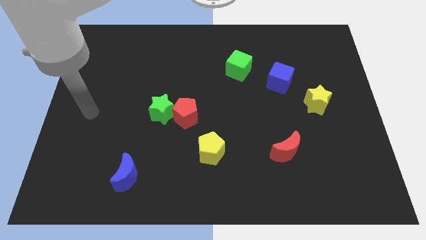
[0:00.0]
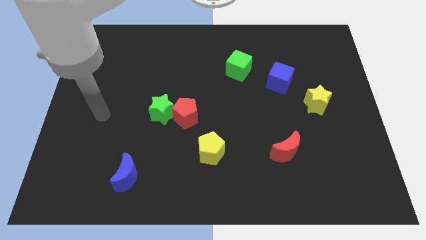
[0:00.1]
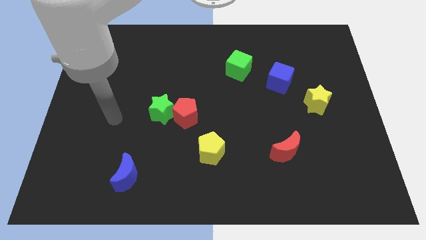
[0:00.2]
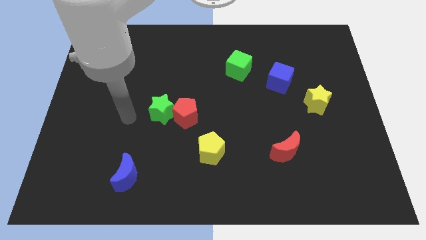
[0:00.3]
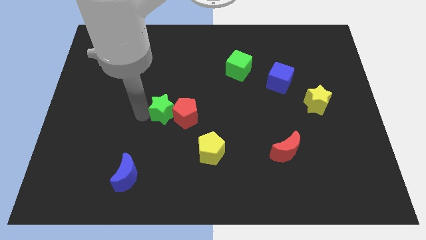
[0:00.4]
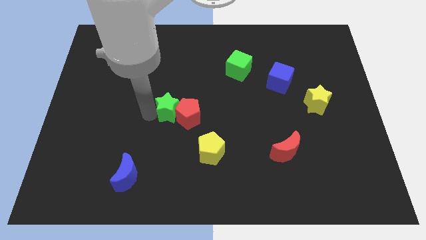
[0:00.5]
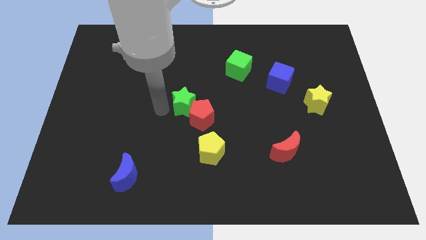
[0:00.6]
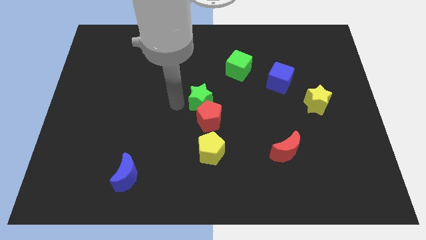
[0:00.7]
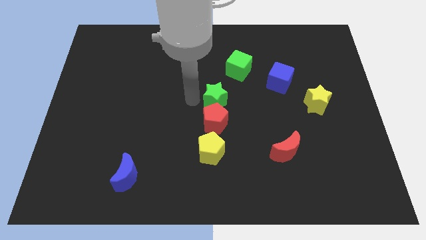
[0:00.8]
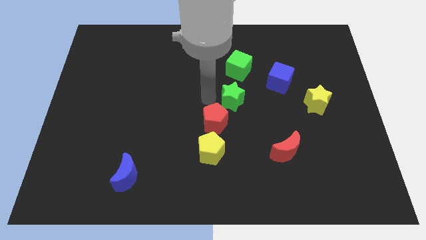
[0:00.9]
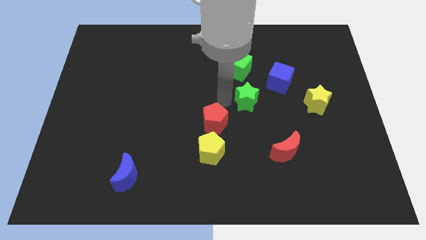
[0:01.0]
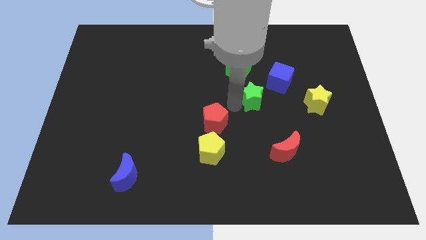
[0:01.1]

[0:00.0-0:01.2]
move the red pentagon away from the green star

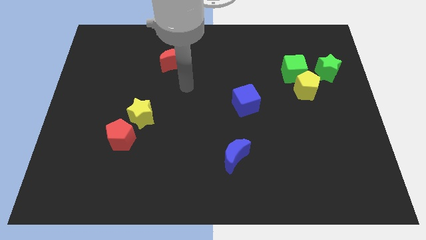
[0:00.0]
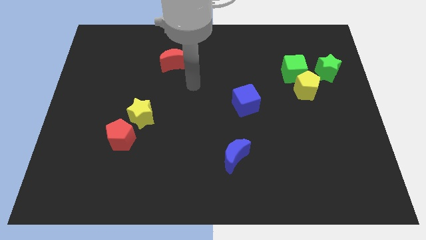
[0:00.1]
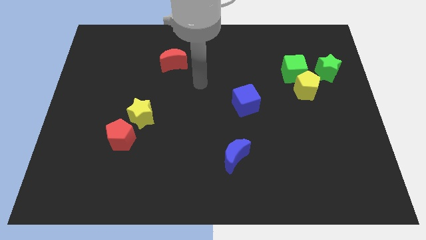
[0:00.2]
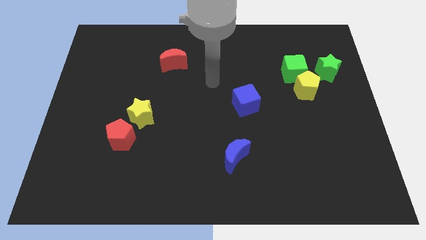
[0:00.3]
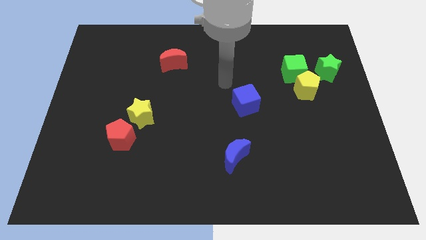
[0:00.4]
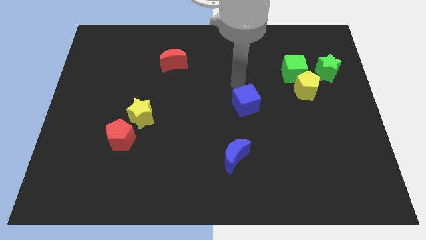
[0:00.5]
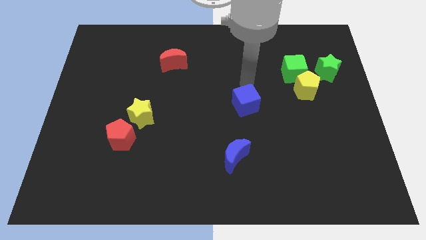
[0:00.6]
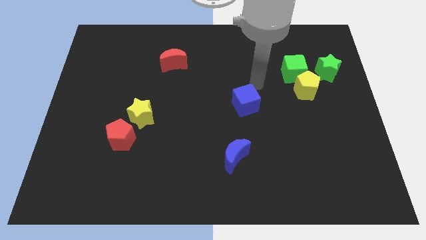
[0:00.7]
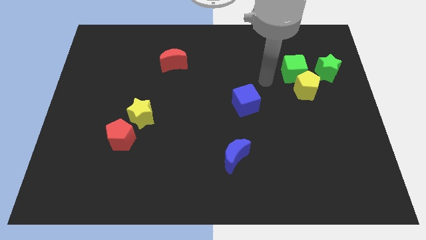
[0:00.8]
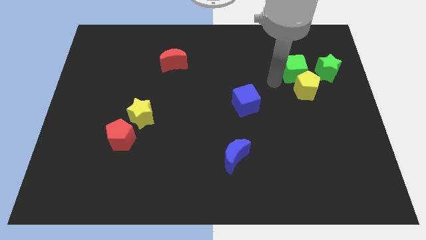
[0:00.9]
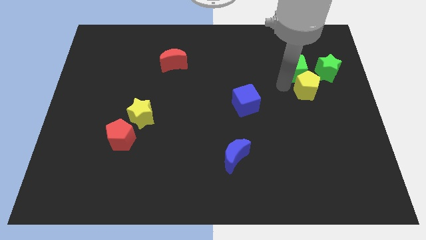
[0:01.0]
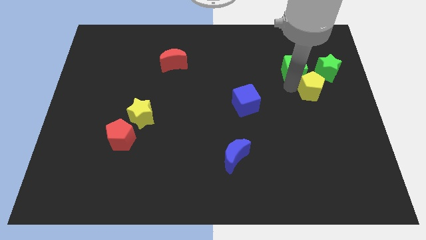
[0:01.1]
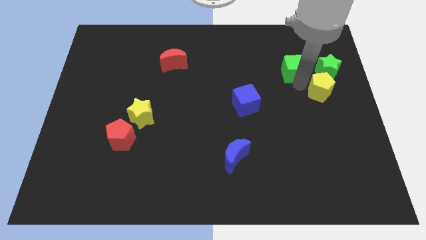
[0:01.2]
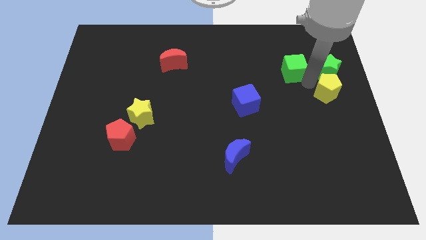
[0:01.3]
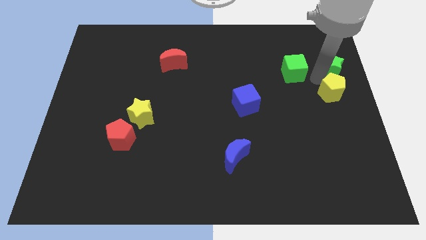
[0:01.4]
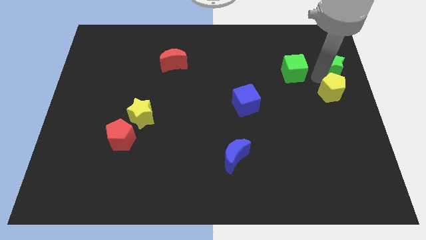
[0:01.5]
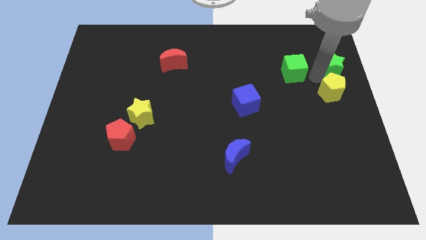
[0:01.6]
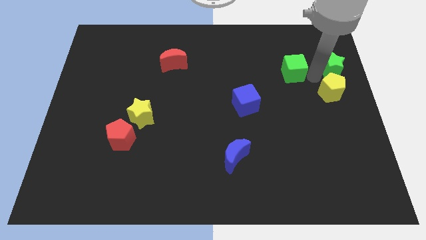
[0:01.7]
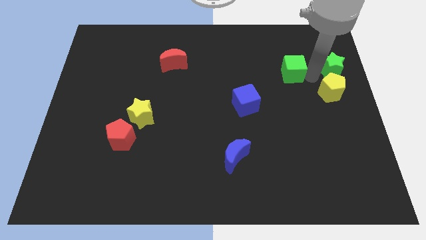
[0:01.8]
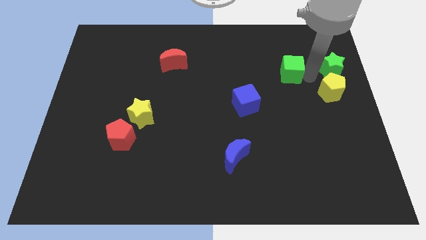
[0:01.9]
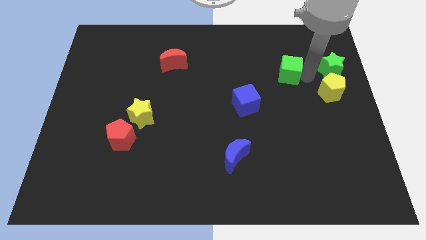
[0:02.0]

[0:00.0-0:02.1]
separate the green cube from the yellow pentagon and green star

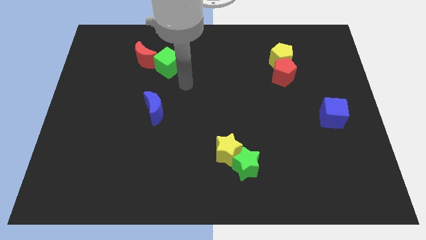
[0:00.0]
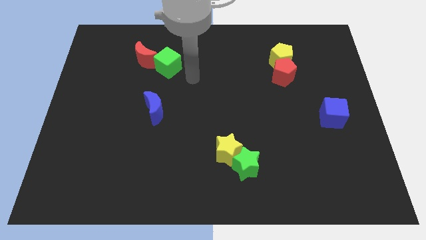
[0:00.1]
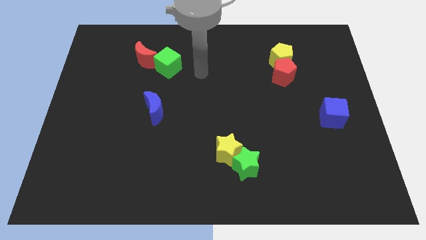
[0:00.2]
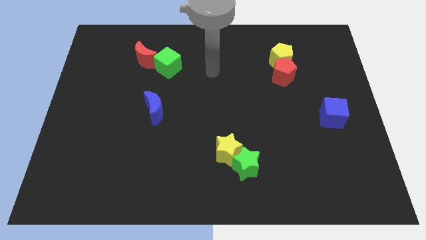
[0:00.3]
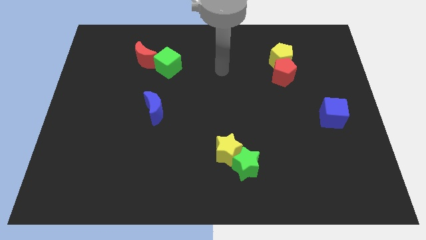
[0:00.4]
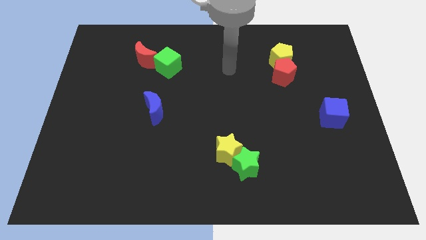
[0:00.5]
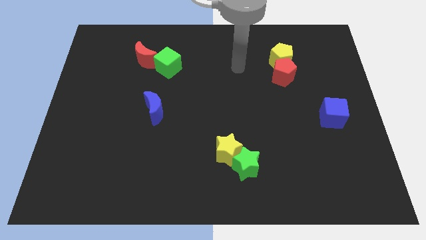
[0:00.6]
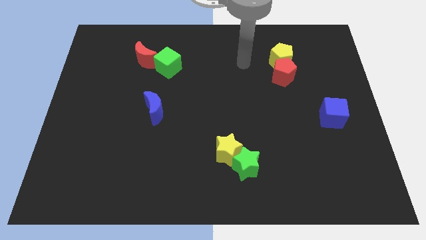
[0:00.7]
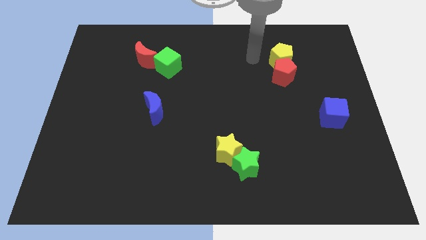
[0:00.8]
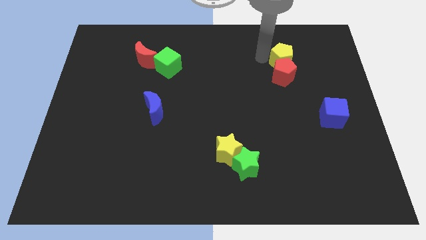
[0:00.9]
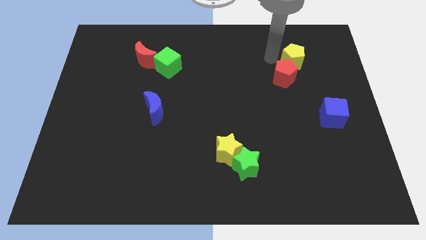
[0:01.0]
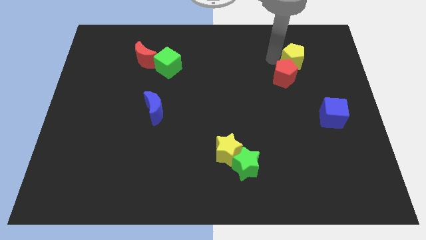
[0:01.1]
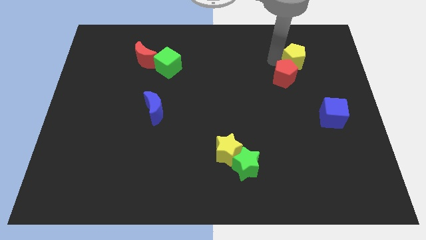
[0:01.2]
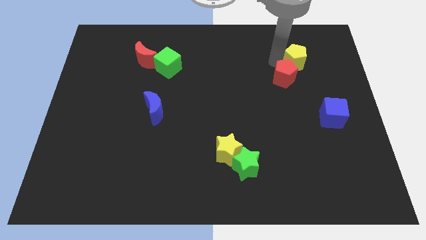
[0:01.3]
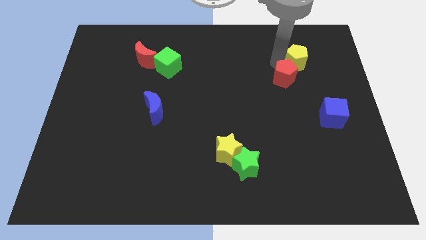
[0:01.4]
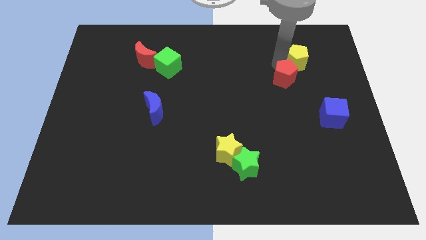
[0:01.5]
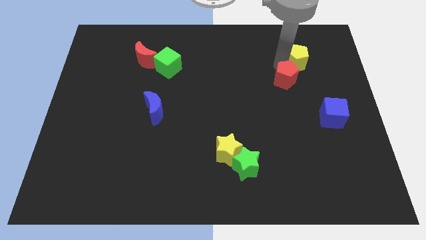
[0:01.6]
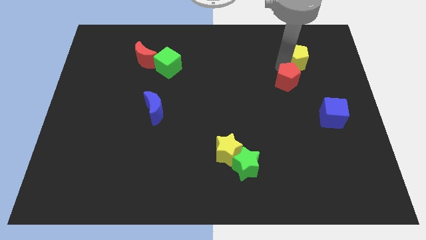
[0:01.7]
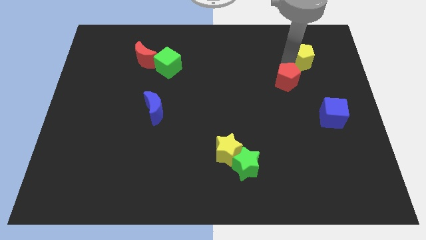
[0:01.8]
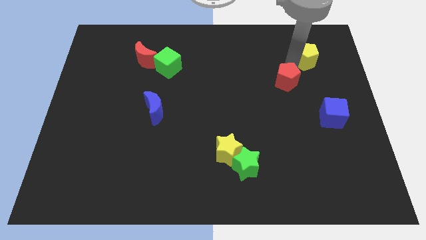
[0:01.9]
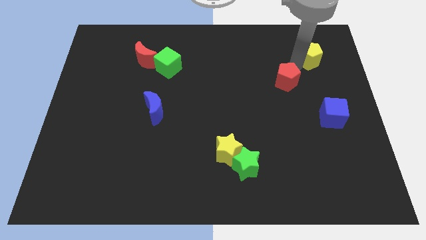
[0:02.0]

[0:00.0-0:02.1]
pull the red pentagon apart from the yellow pentagon

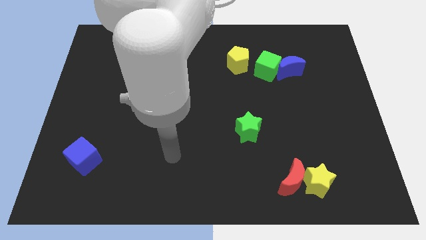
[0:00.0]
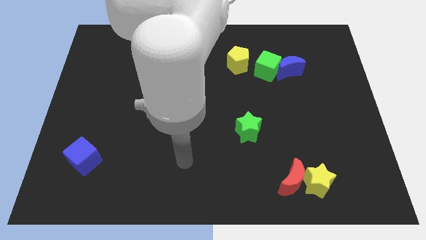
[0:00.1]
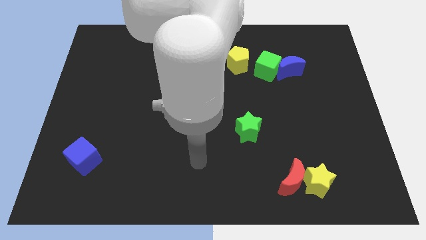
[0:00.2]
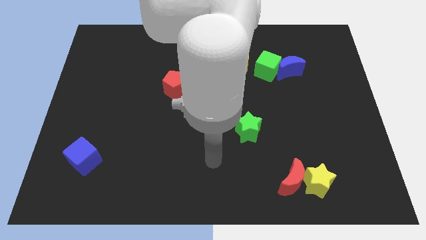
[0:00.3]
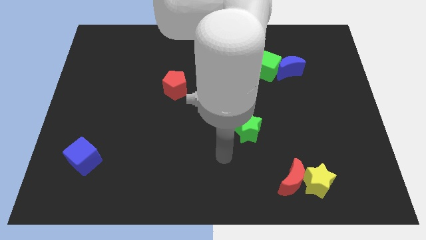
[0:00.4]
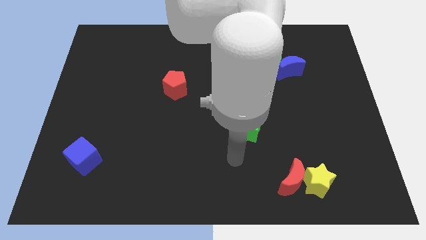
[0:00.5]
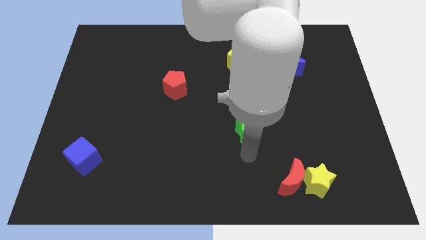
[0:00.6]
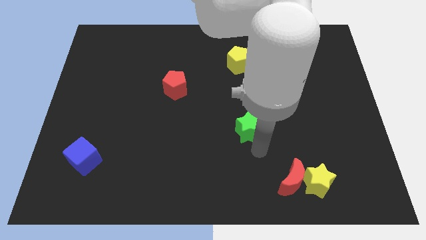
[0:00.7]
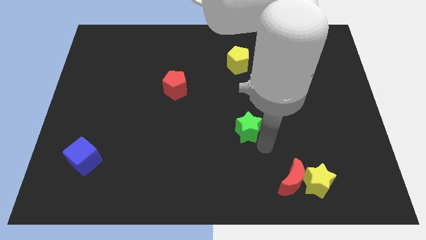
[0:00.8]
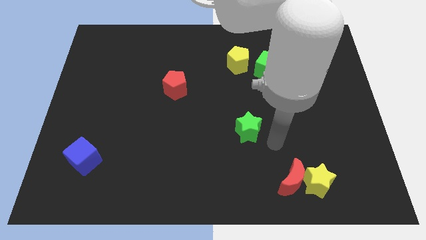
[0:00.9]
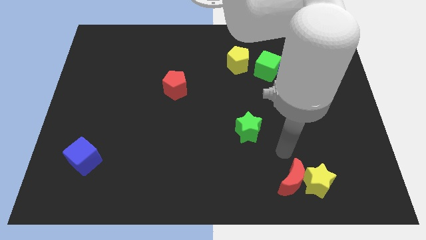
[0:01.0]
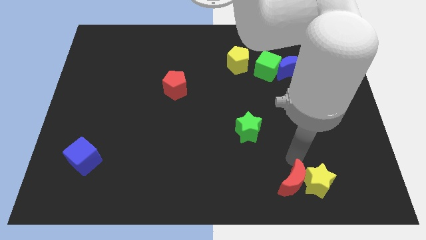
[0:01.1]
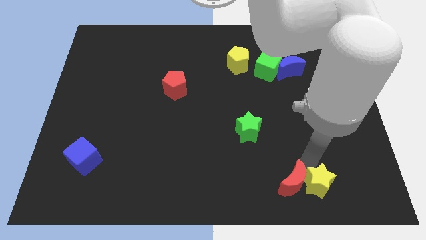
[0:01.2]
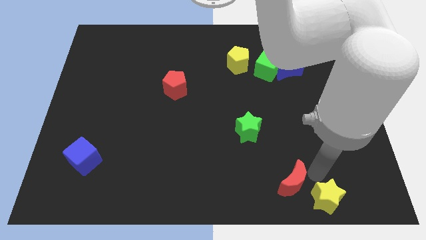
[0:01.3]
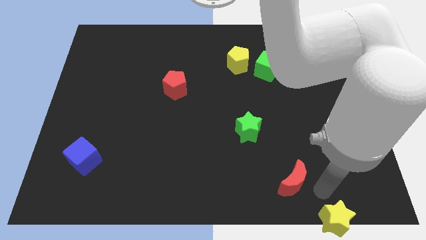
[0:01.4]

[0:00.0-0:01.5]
move the red moon away from the yellow star

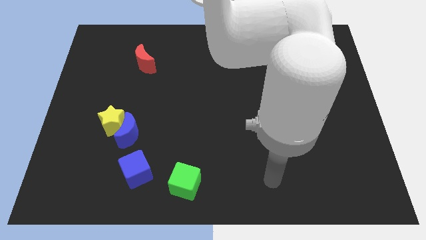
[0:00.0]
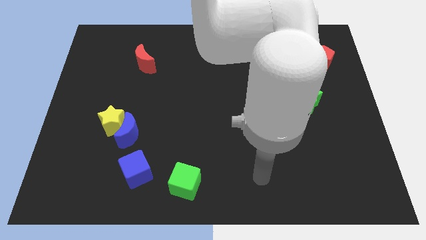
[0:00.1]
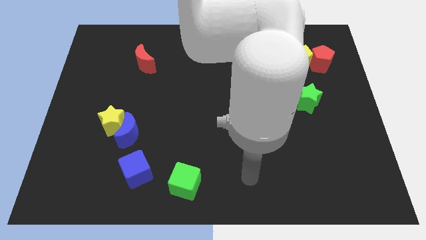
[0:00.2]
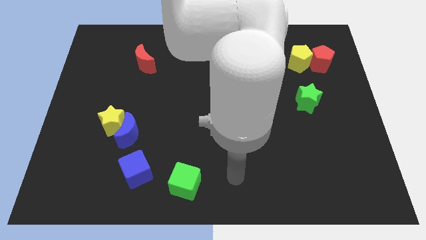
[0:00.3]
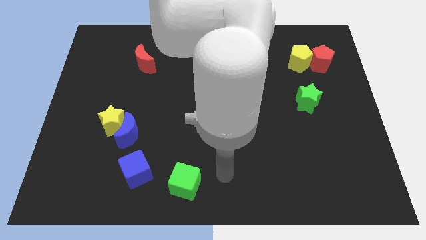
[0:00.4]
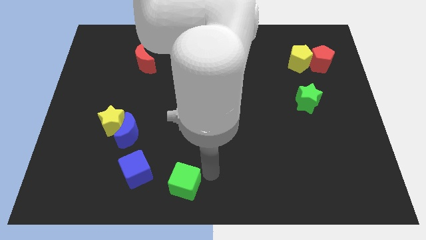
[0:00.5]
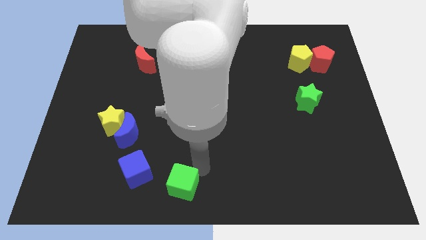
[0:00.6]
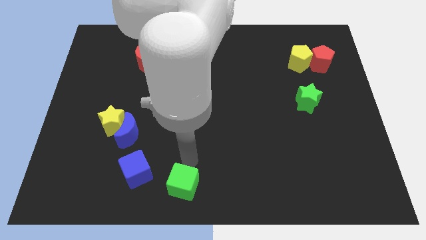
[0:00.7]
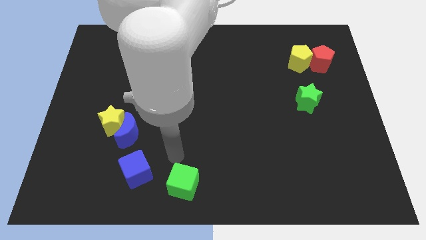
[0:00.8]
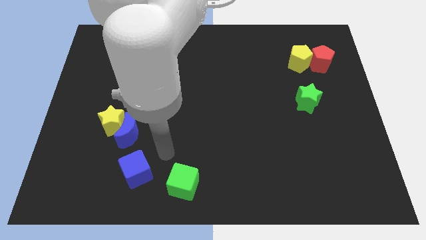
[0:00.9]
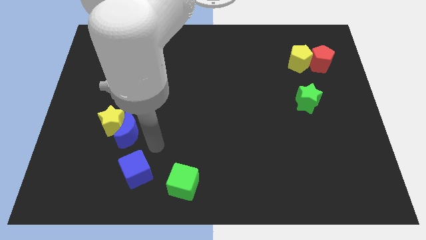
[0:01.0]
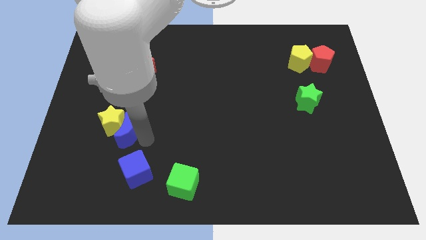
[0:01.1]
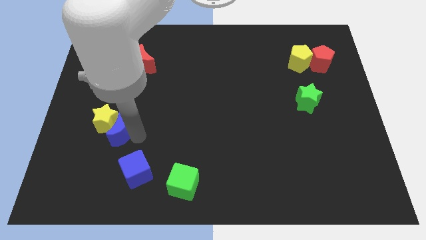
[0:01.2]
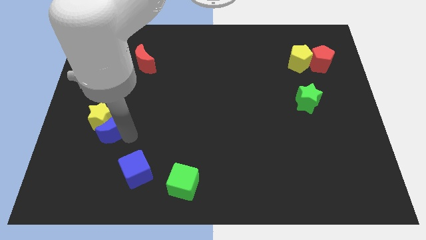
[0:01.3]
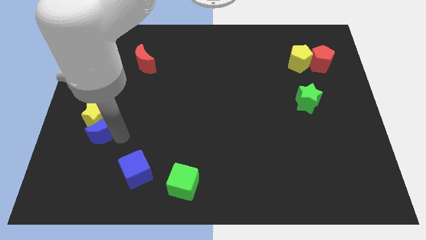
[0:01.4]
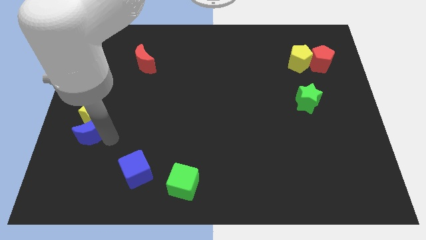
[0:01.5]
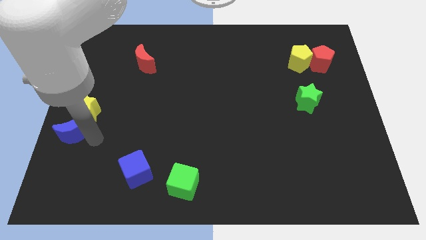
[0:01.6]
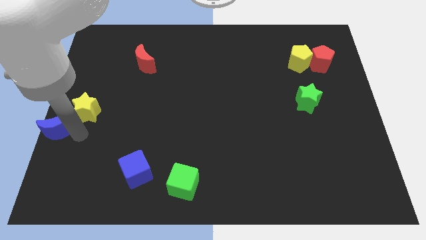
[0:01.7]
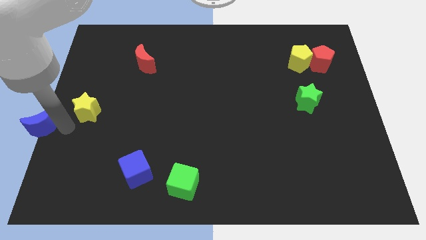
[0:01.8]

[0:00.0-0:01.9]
separate the yellow star from the blue moon

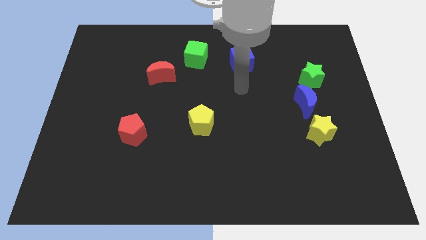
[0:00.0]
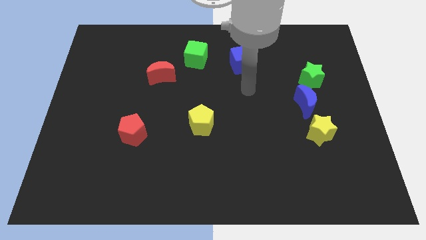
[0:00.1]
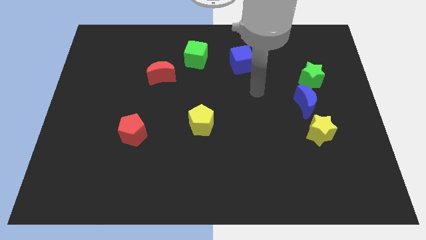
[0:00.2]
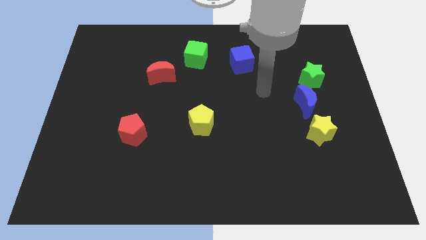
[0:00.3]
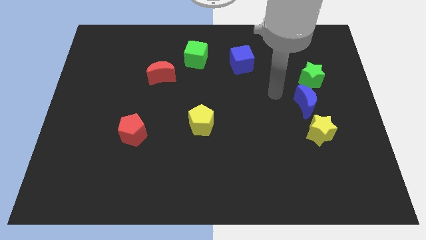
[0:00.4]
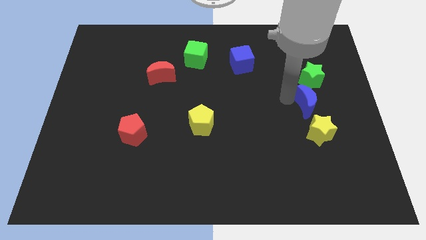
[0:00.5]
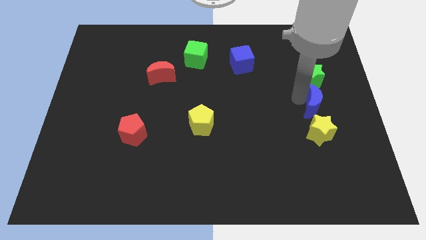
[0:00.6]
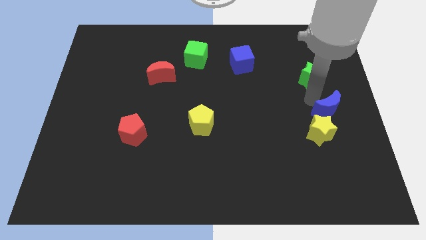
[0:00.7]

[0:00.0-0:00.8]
separate the green star from the blue moon
